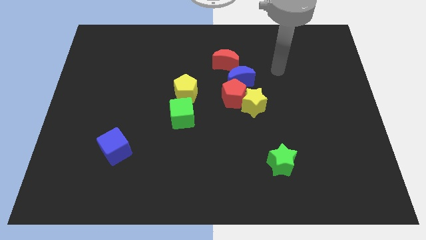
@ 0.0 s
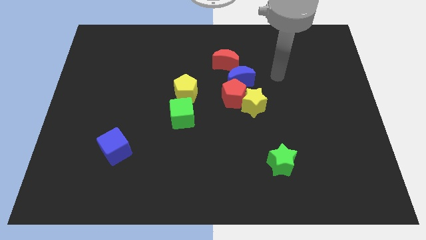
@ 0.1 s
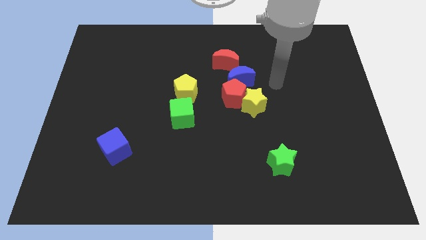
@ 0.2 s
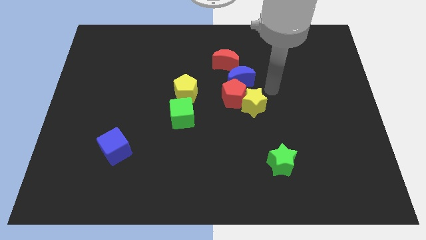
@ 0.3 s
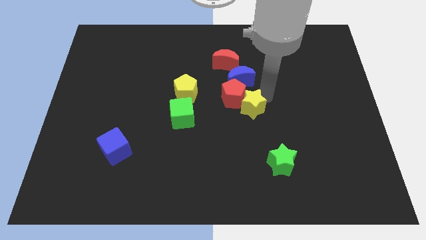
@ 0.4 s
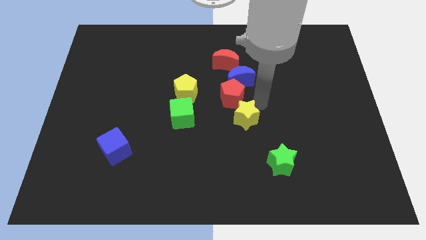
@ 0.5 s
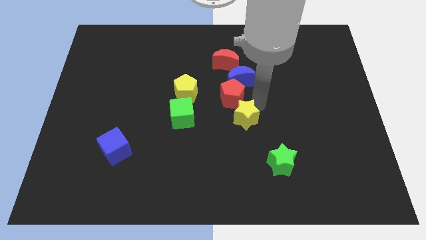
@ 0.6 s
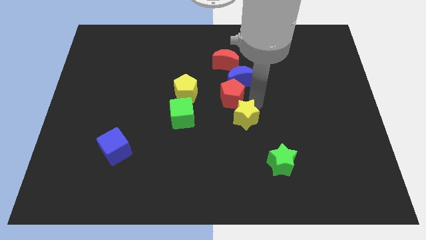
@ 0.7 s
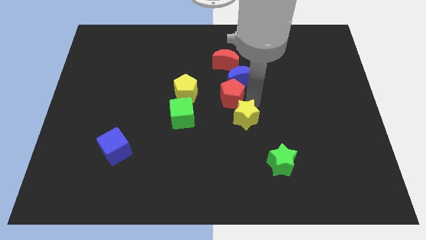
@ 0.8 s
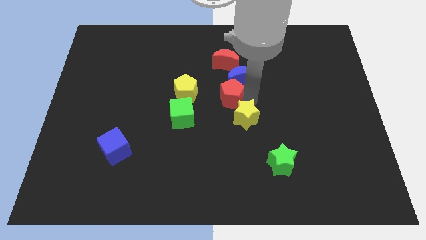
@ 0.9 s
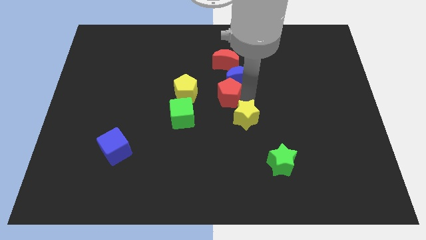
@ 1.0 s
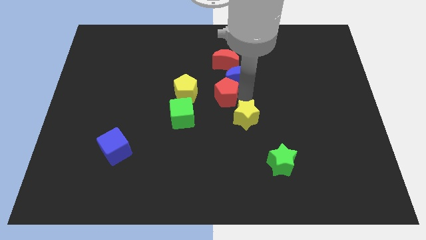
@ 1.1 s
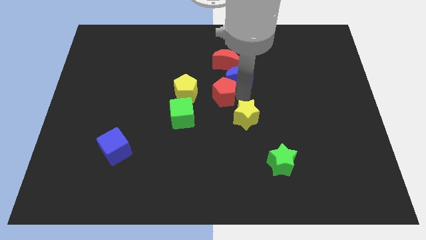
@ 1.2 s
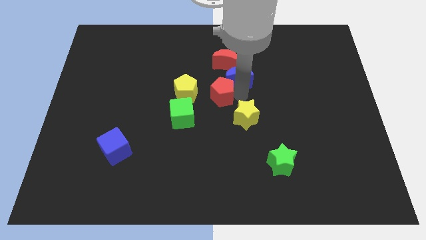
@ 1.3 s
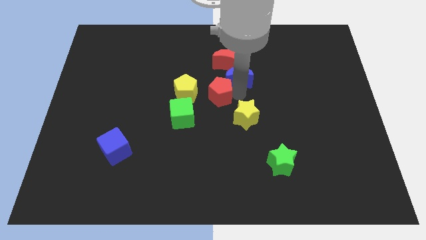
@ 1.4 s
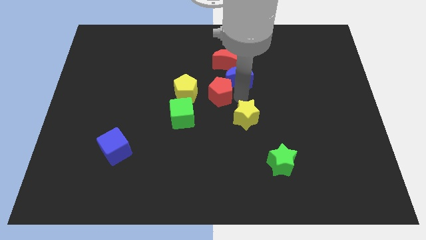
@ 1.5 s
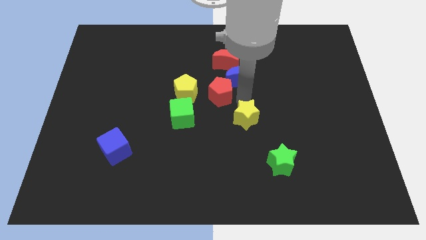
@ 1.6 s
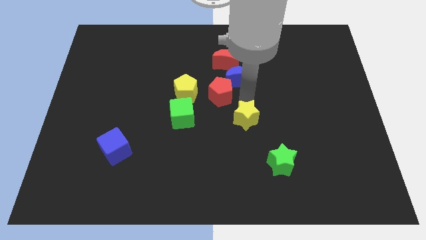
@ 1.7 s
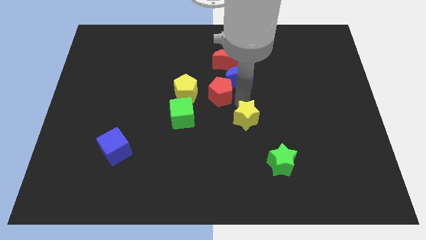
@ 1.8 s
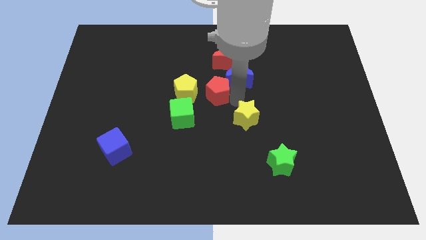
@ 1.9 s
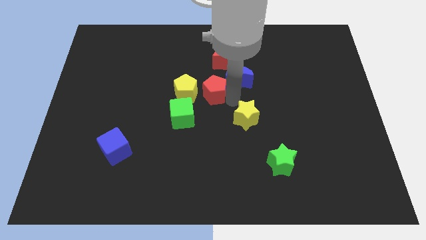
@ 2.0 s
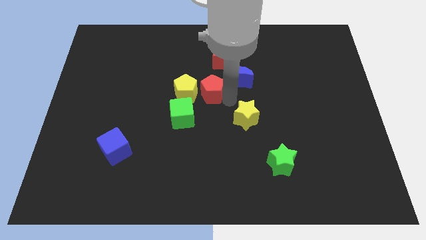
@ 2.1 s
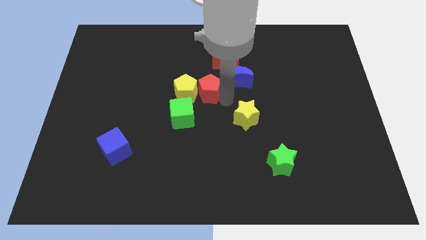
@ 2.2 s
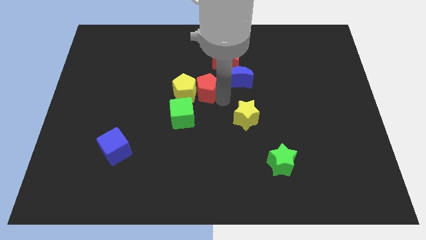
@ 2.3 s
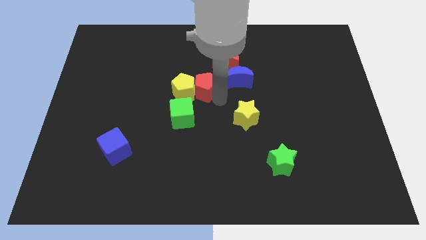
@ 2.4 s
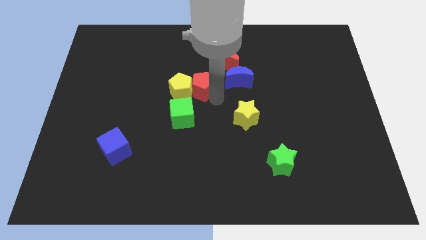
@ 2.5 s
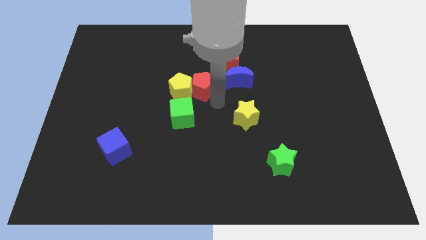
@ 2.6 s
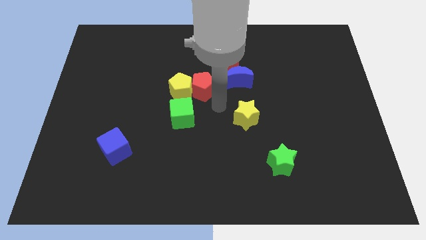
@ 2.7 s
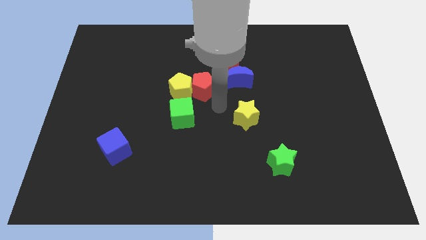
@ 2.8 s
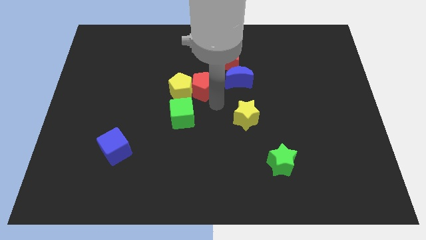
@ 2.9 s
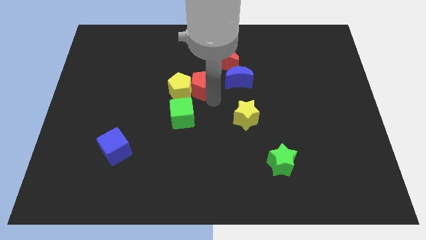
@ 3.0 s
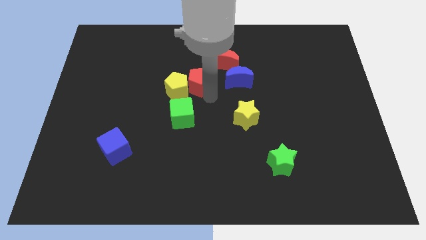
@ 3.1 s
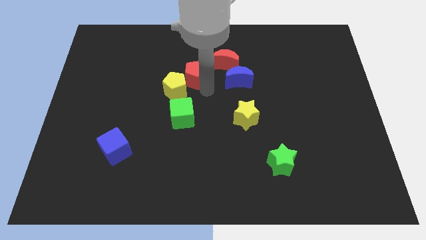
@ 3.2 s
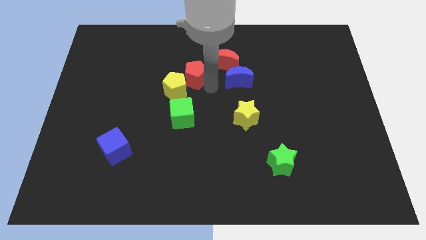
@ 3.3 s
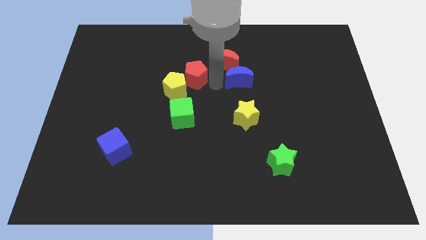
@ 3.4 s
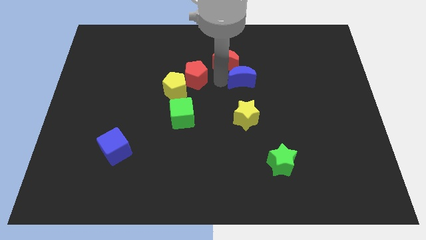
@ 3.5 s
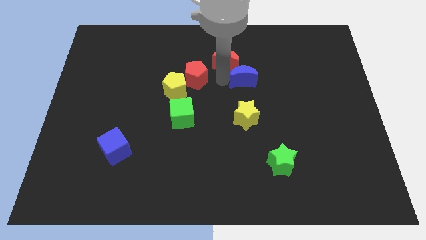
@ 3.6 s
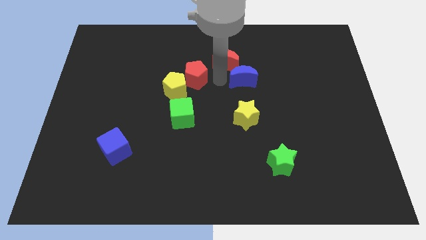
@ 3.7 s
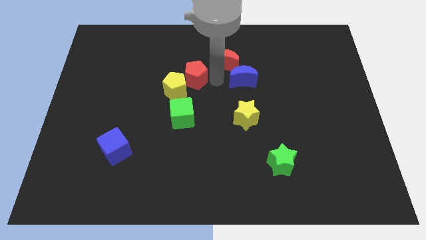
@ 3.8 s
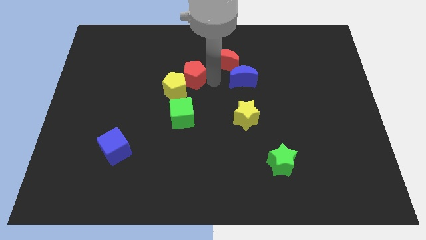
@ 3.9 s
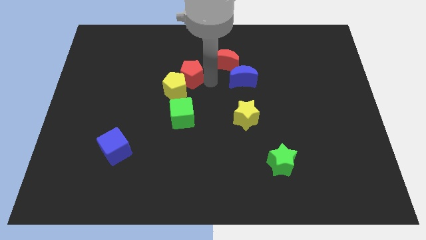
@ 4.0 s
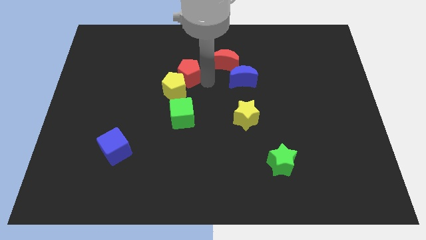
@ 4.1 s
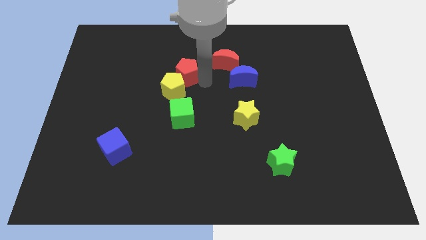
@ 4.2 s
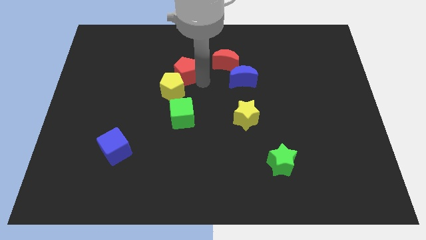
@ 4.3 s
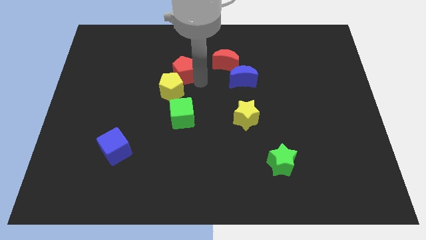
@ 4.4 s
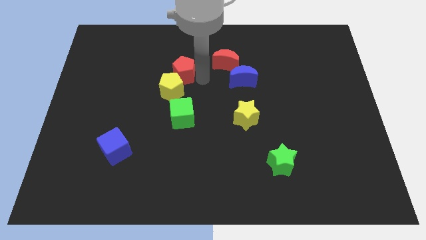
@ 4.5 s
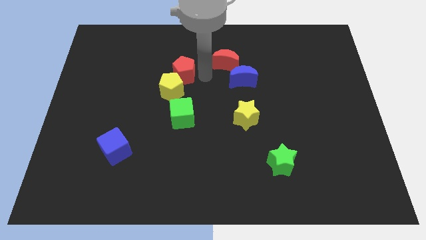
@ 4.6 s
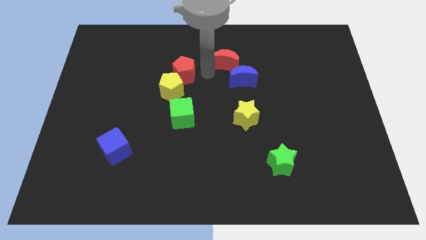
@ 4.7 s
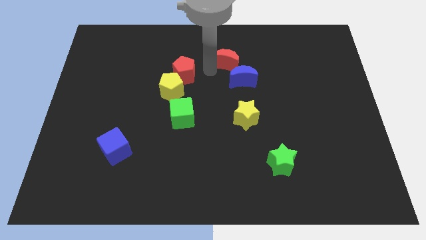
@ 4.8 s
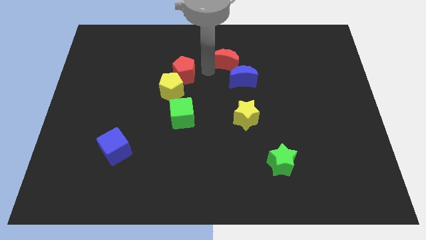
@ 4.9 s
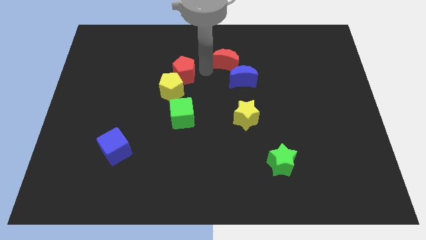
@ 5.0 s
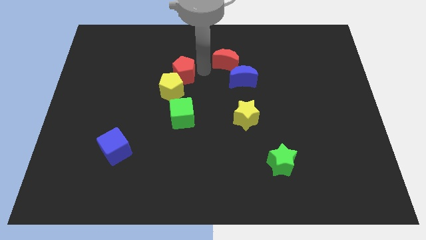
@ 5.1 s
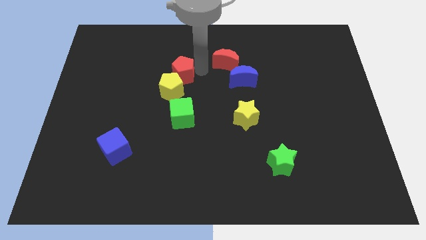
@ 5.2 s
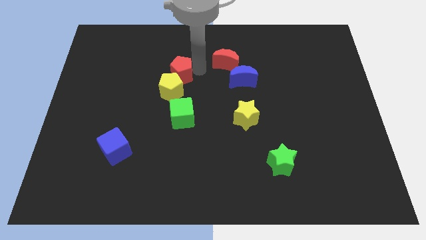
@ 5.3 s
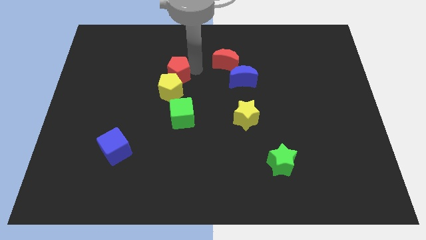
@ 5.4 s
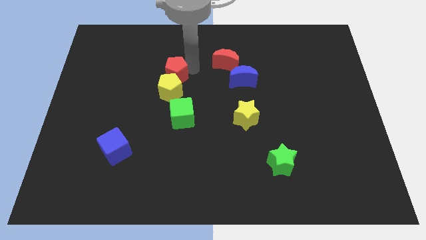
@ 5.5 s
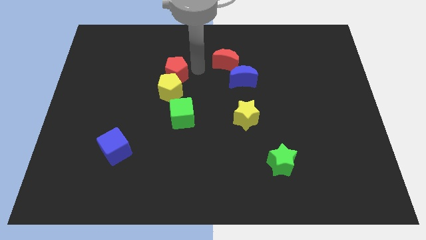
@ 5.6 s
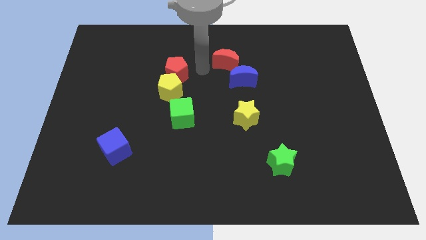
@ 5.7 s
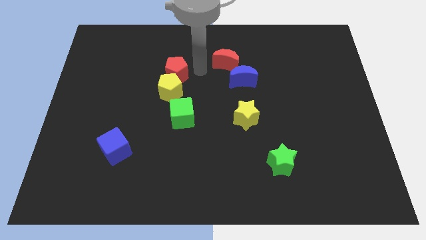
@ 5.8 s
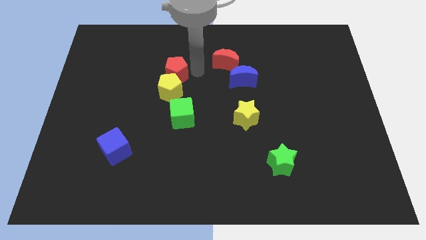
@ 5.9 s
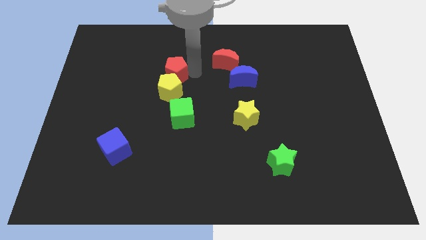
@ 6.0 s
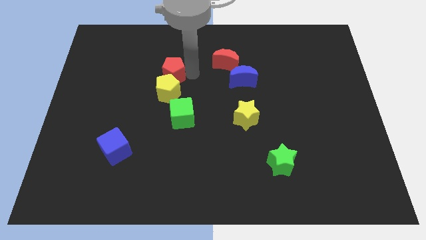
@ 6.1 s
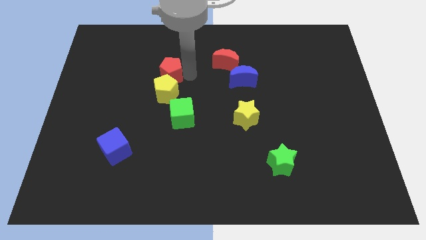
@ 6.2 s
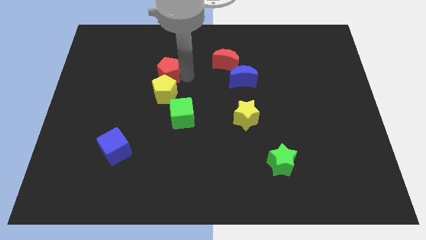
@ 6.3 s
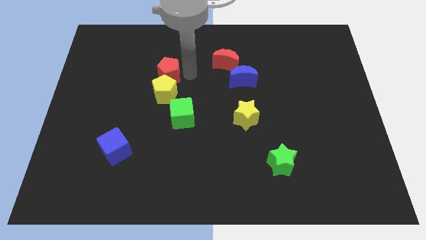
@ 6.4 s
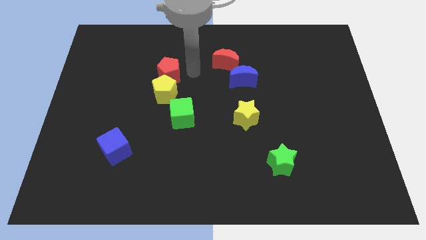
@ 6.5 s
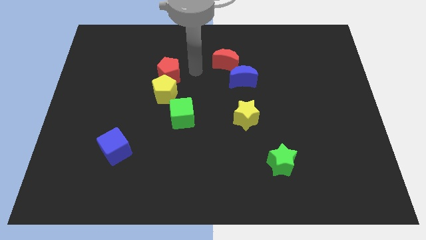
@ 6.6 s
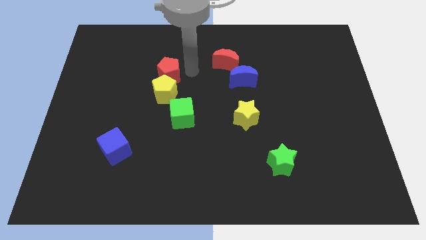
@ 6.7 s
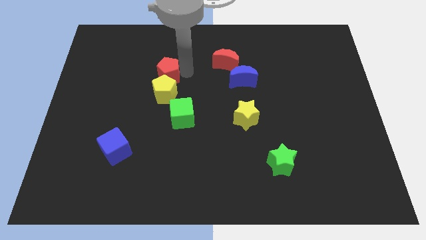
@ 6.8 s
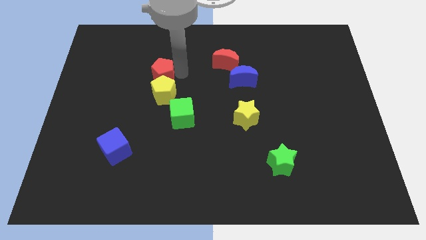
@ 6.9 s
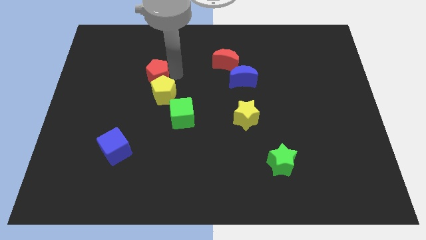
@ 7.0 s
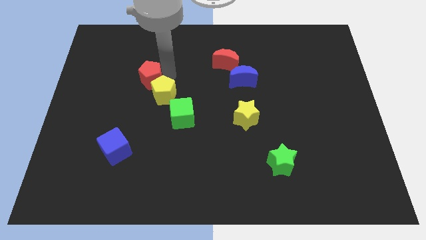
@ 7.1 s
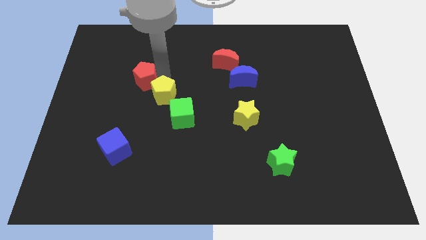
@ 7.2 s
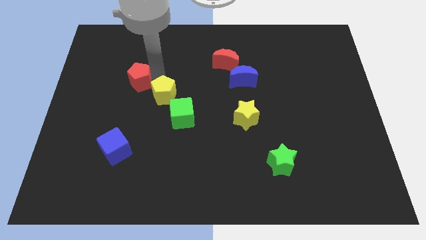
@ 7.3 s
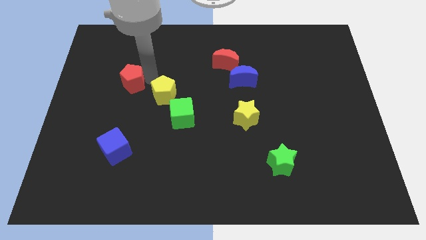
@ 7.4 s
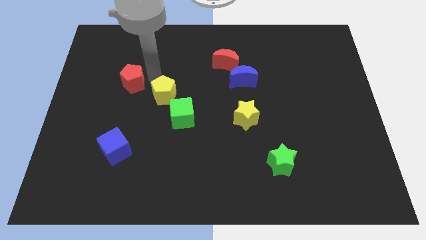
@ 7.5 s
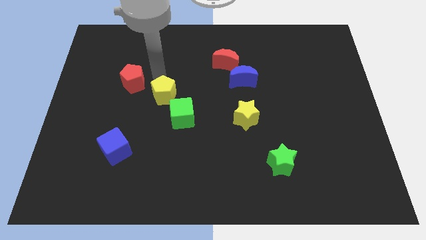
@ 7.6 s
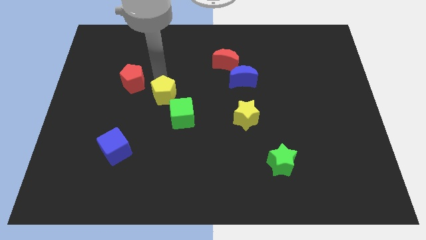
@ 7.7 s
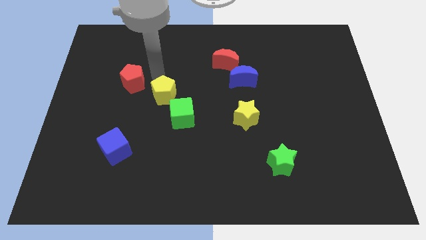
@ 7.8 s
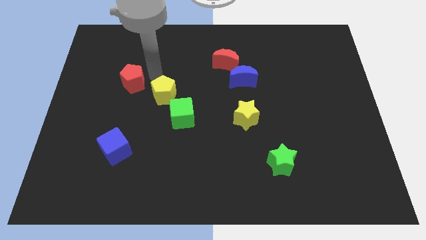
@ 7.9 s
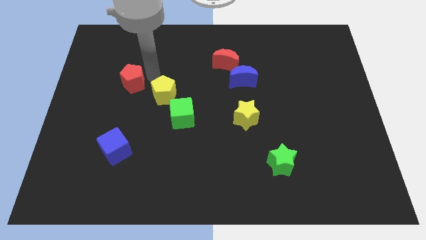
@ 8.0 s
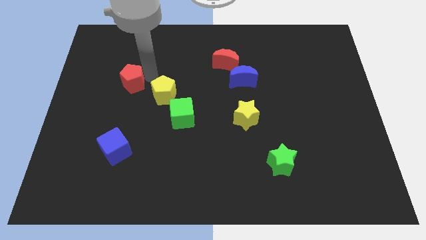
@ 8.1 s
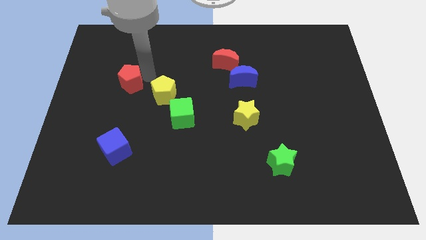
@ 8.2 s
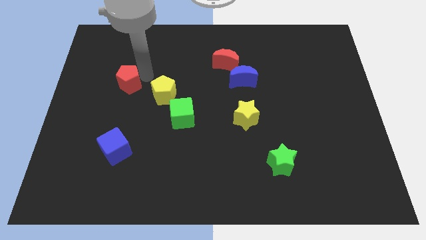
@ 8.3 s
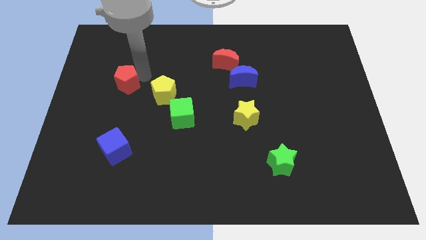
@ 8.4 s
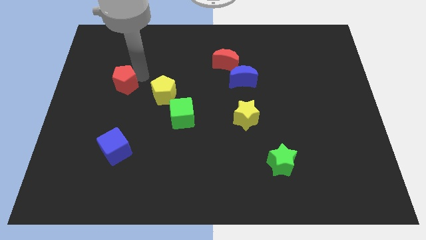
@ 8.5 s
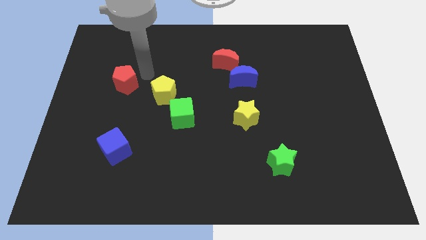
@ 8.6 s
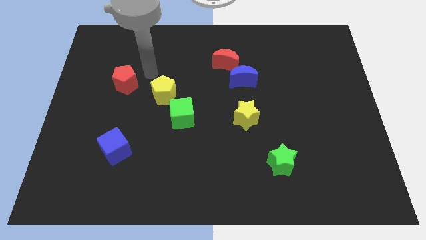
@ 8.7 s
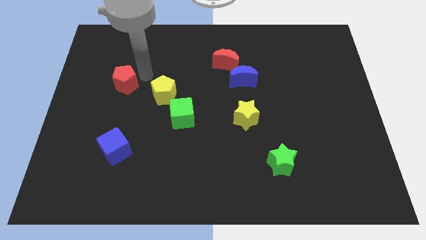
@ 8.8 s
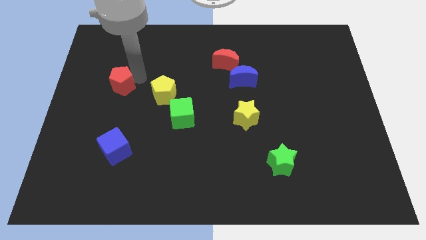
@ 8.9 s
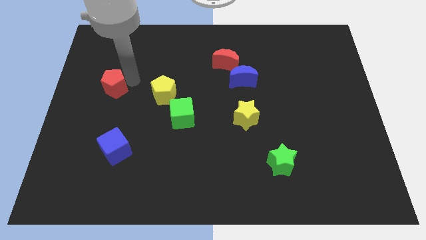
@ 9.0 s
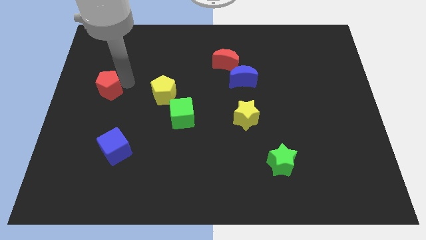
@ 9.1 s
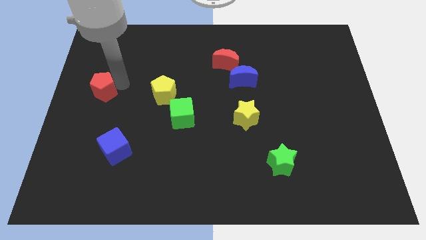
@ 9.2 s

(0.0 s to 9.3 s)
push the red pentagon to the left side
